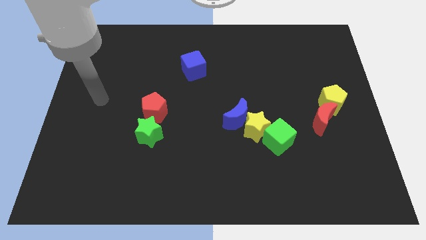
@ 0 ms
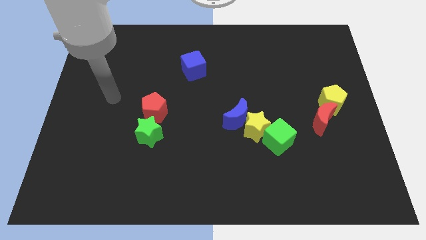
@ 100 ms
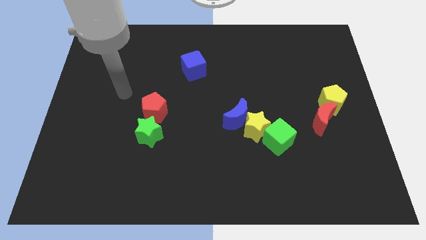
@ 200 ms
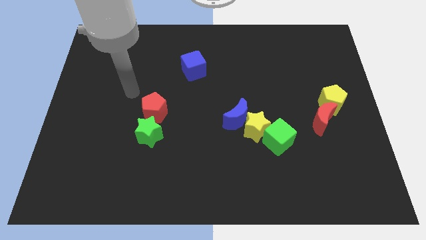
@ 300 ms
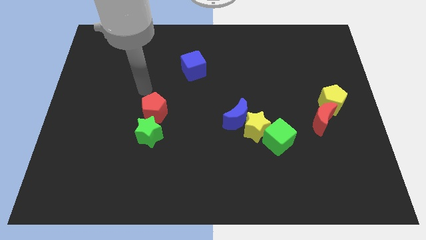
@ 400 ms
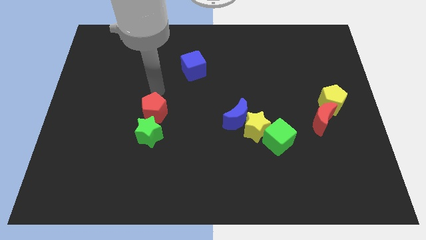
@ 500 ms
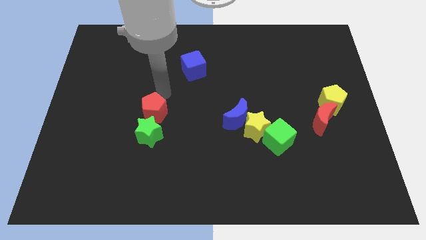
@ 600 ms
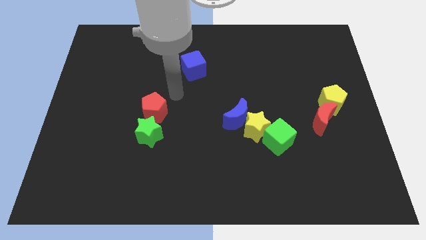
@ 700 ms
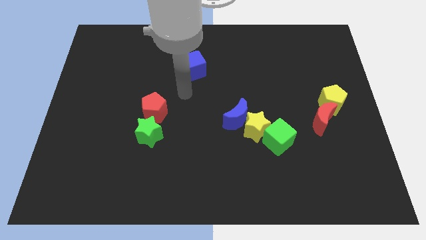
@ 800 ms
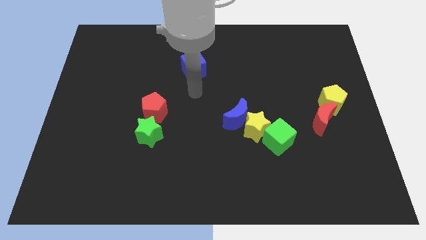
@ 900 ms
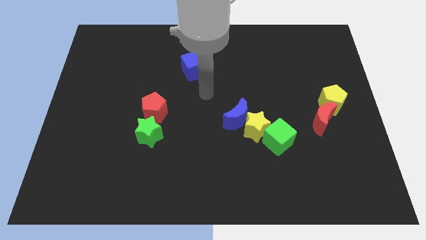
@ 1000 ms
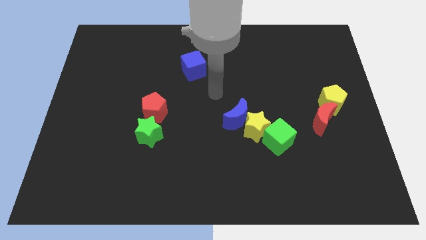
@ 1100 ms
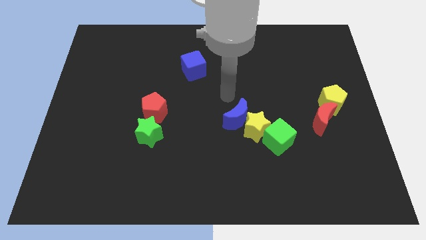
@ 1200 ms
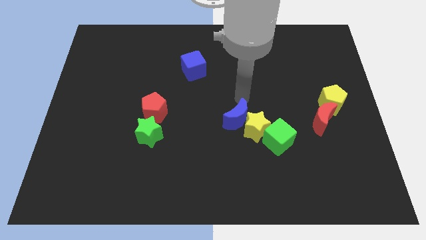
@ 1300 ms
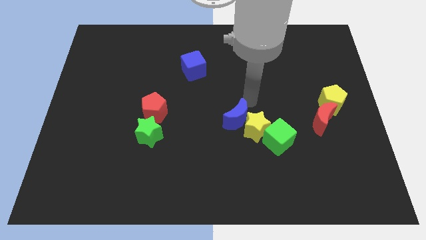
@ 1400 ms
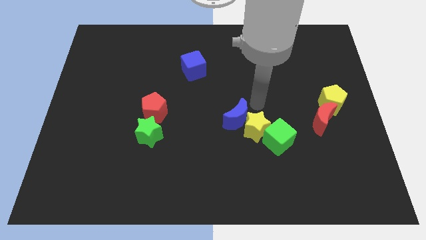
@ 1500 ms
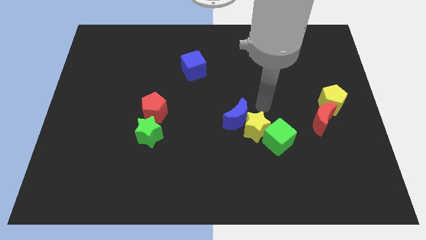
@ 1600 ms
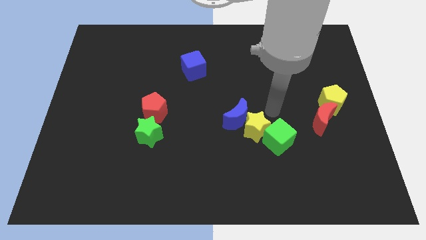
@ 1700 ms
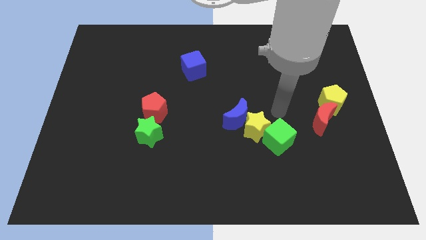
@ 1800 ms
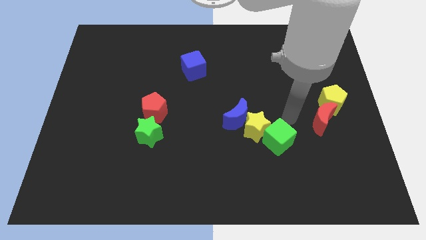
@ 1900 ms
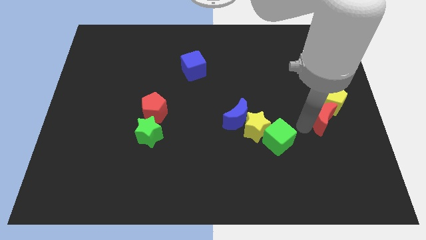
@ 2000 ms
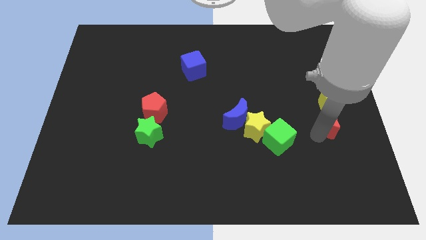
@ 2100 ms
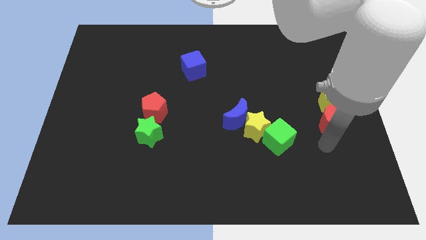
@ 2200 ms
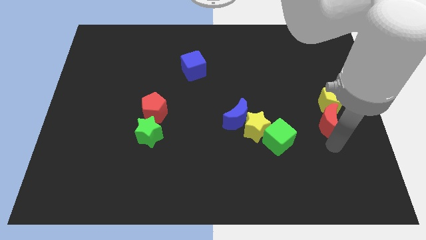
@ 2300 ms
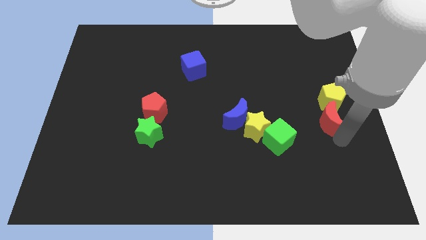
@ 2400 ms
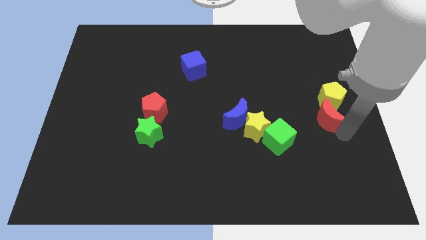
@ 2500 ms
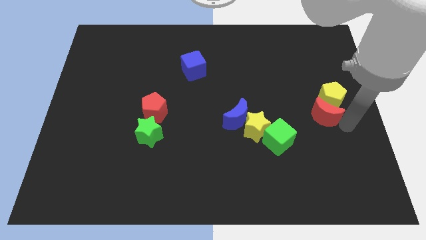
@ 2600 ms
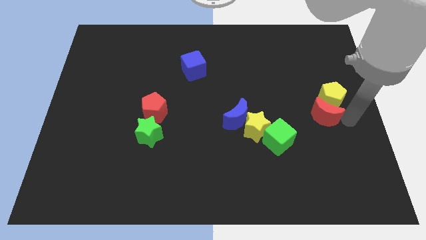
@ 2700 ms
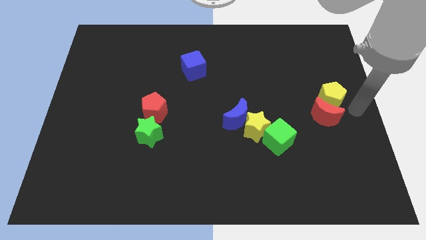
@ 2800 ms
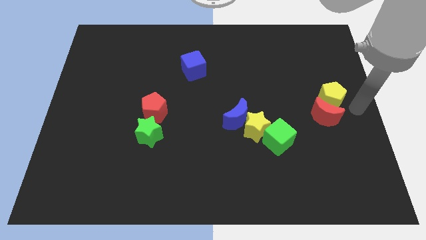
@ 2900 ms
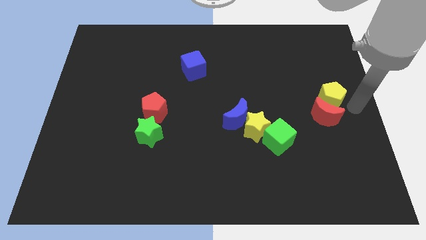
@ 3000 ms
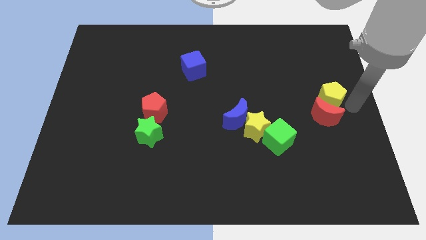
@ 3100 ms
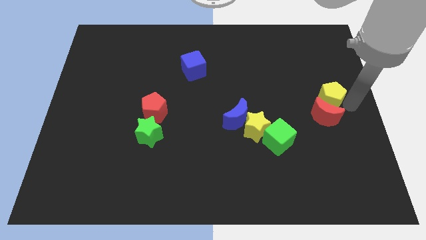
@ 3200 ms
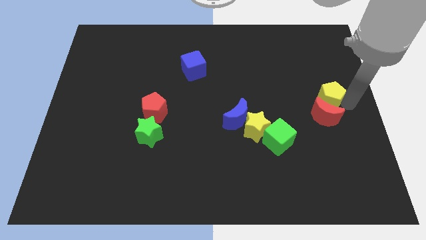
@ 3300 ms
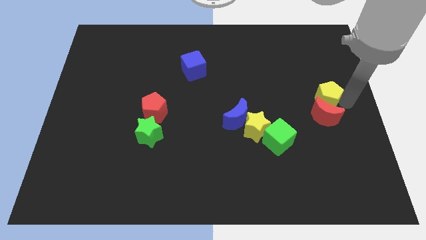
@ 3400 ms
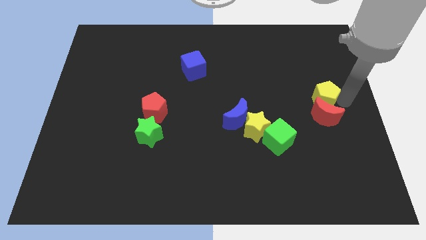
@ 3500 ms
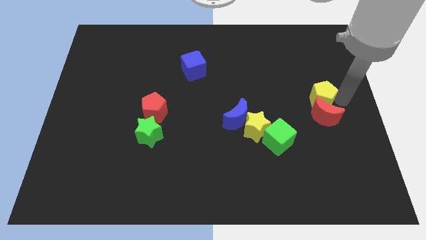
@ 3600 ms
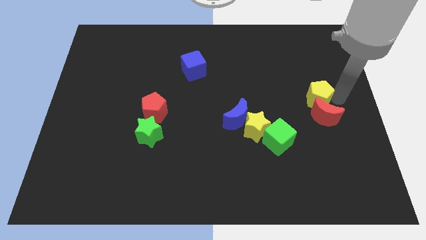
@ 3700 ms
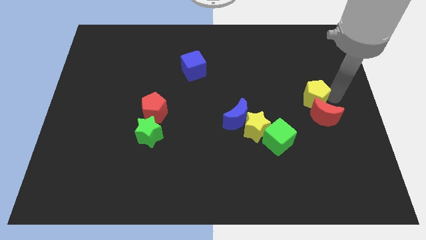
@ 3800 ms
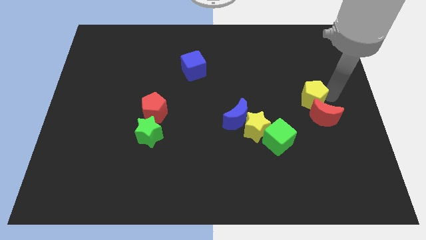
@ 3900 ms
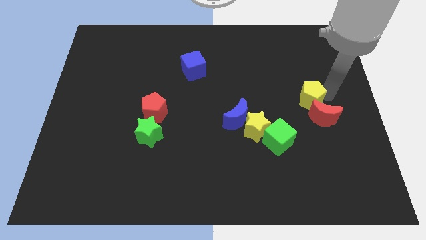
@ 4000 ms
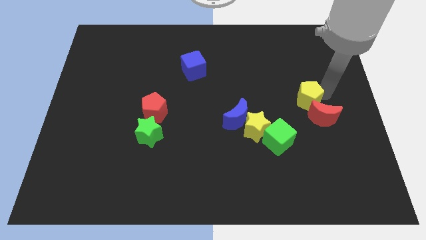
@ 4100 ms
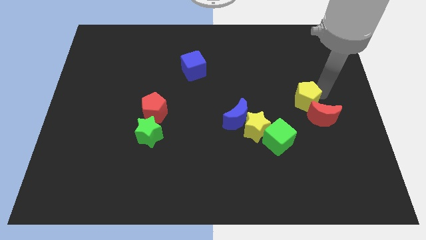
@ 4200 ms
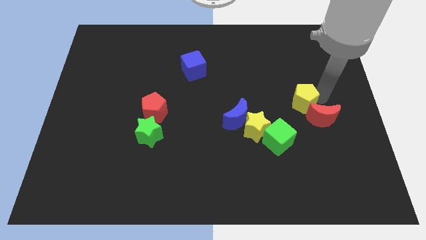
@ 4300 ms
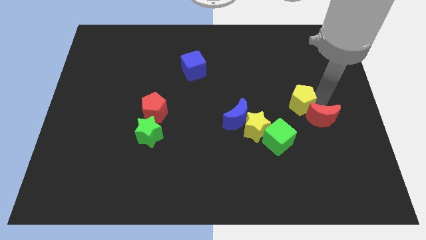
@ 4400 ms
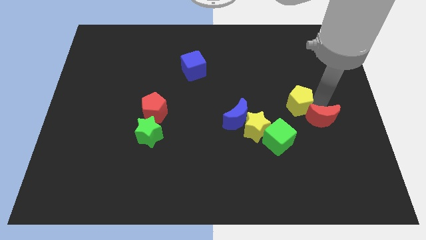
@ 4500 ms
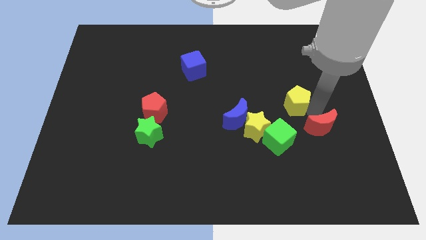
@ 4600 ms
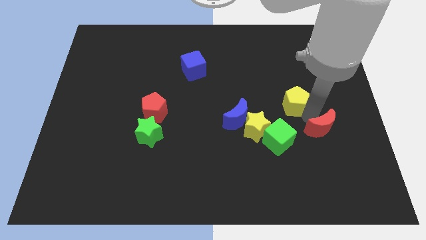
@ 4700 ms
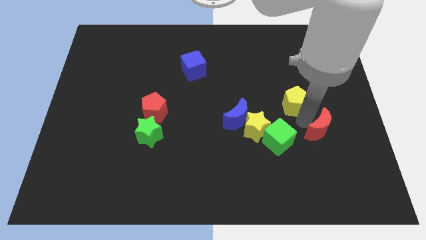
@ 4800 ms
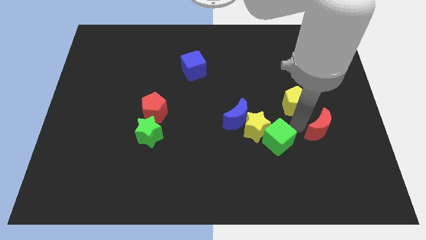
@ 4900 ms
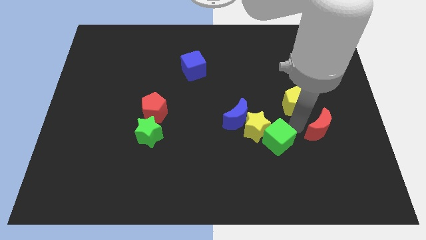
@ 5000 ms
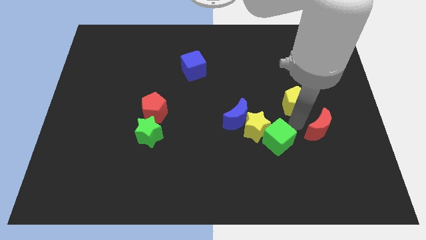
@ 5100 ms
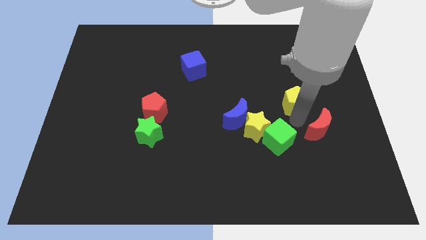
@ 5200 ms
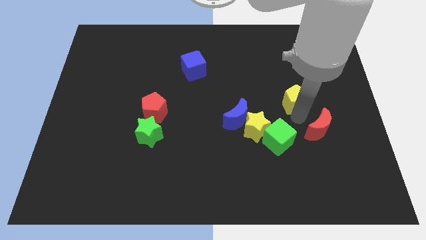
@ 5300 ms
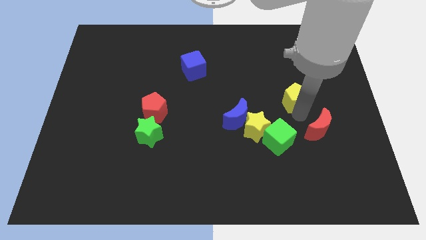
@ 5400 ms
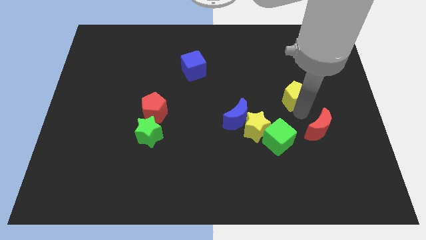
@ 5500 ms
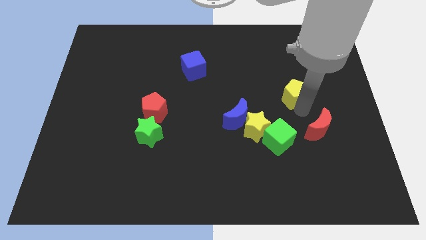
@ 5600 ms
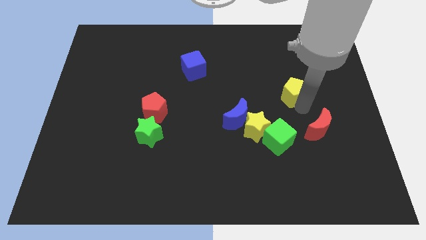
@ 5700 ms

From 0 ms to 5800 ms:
slightly slide the yellow pentagon up and to the left

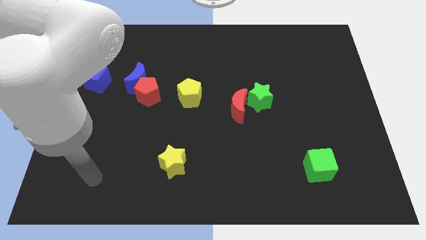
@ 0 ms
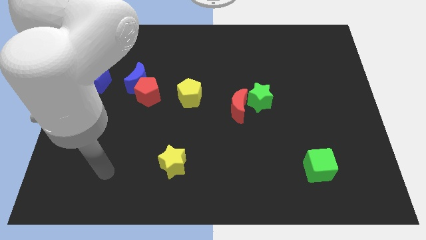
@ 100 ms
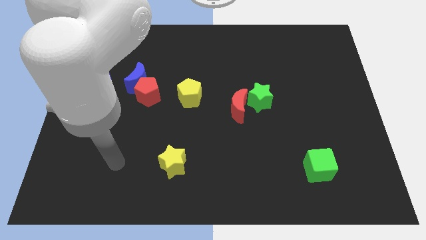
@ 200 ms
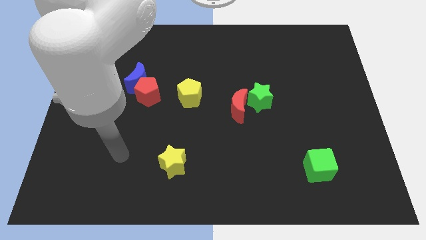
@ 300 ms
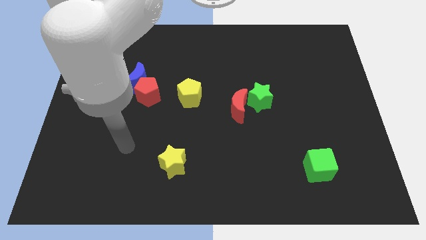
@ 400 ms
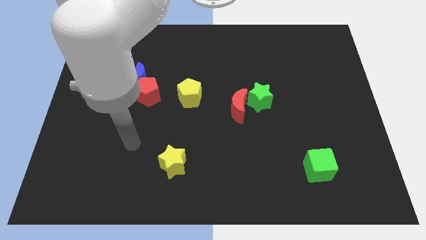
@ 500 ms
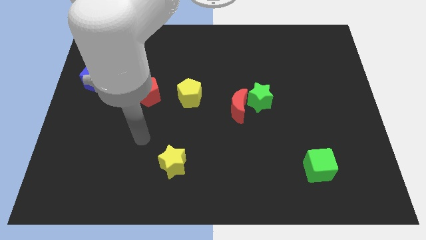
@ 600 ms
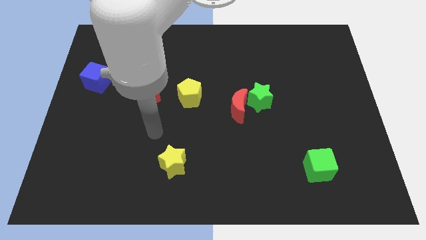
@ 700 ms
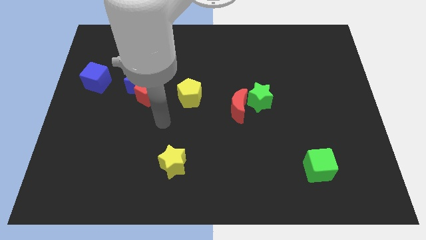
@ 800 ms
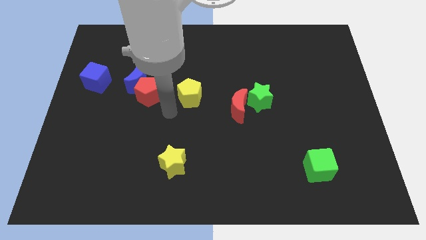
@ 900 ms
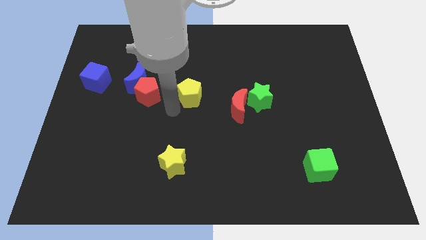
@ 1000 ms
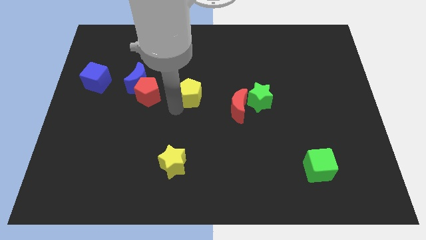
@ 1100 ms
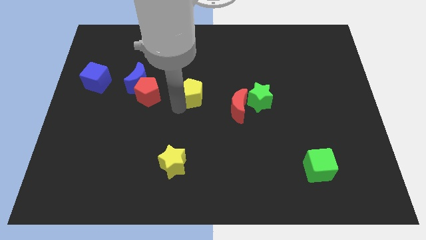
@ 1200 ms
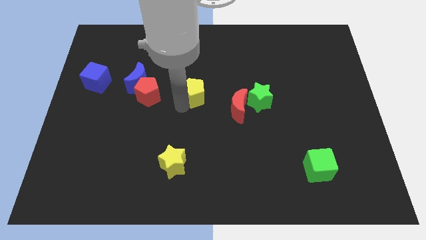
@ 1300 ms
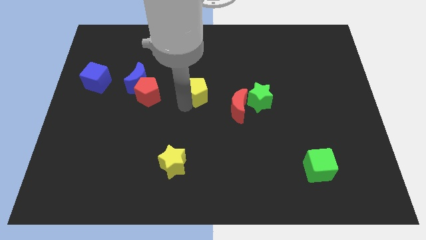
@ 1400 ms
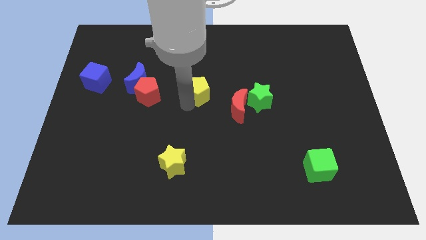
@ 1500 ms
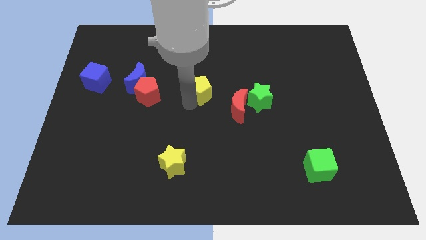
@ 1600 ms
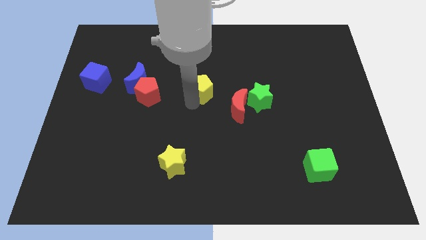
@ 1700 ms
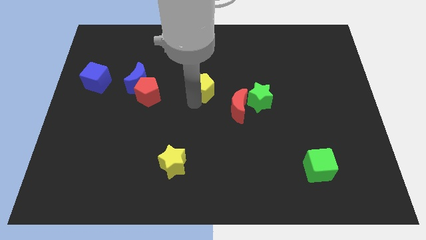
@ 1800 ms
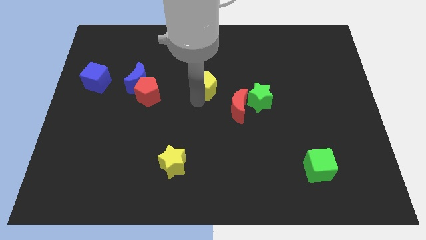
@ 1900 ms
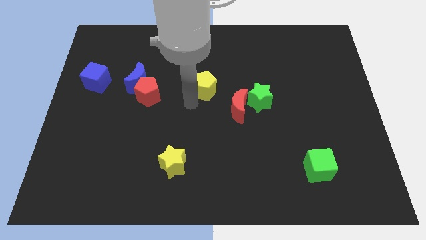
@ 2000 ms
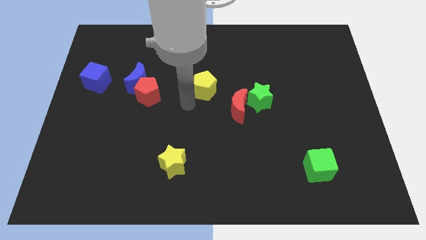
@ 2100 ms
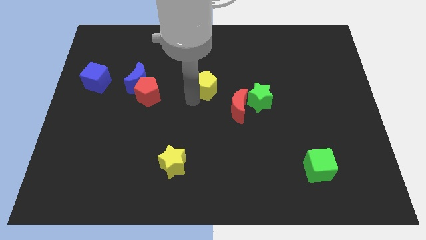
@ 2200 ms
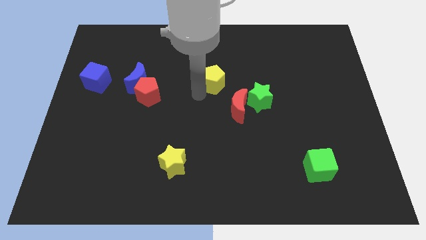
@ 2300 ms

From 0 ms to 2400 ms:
push the yellow pentagon a little bit upwards and right diagonally

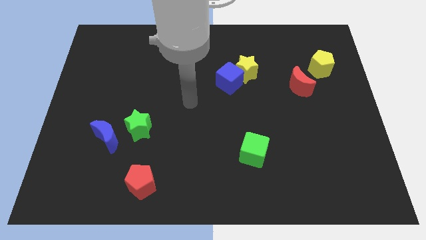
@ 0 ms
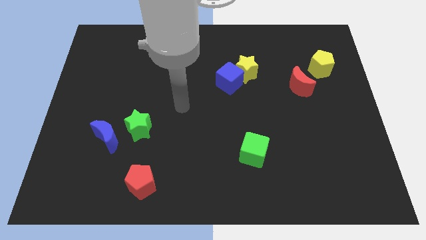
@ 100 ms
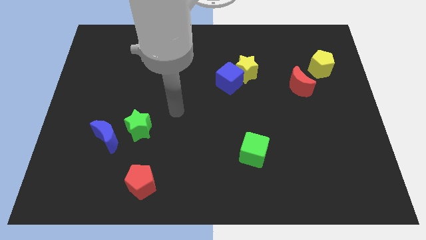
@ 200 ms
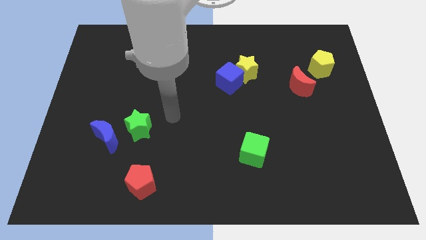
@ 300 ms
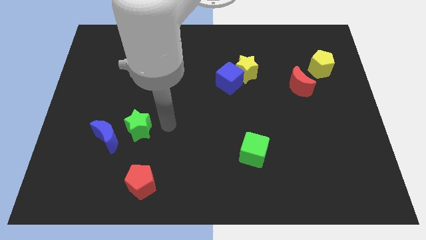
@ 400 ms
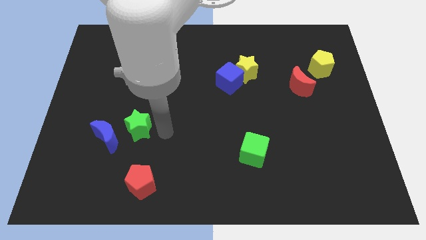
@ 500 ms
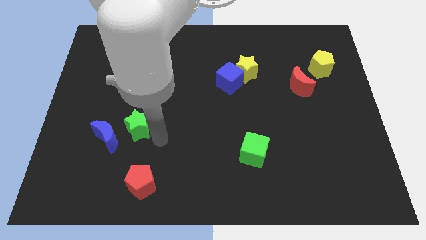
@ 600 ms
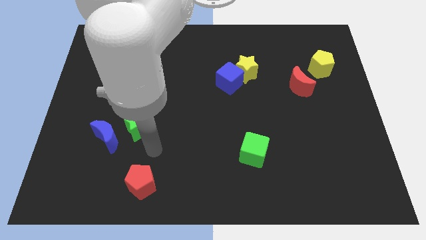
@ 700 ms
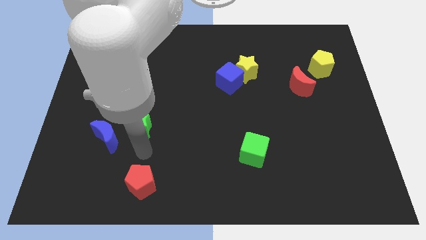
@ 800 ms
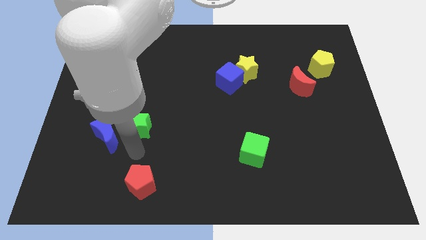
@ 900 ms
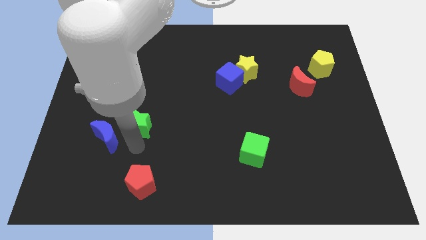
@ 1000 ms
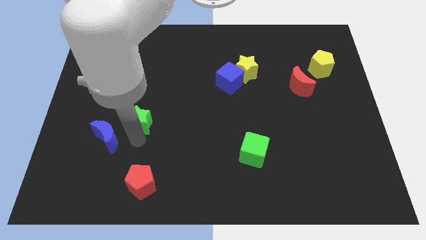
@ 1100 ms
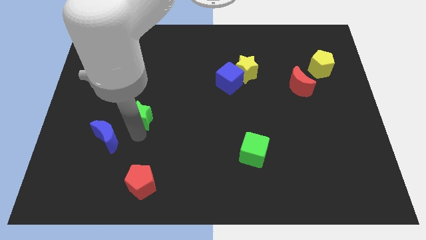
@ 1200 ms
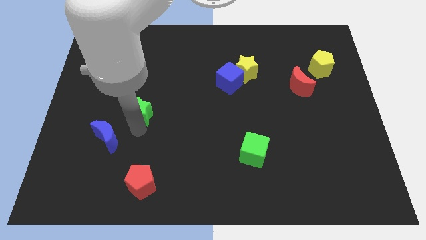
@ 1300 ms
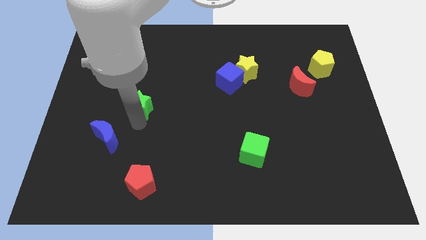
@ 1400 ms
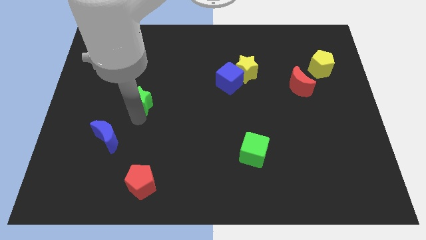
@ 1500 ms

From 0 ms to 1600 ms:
slide the green star upwards a bit
